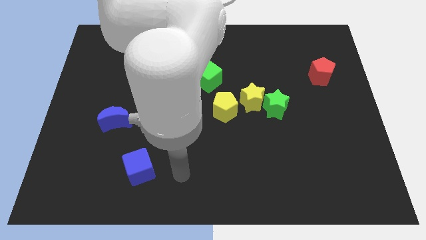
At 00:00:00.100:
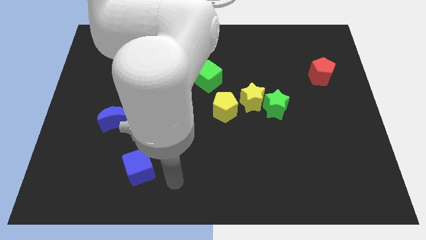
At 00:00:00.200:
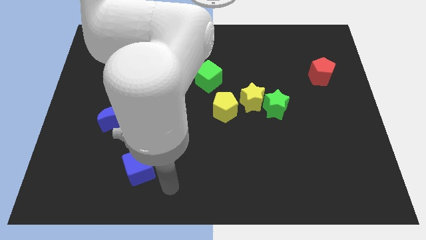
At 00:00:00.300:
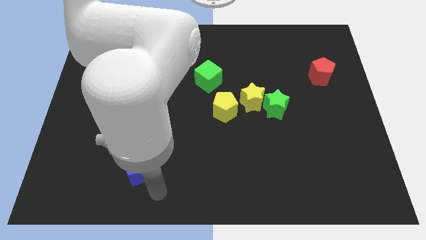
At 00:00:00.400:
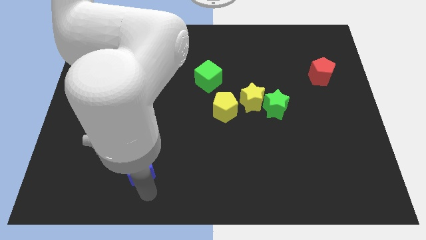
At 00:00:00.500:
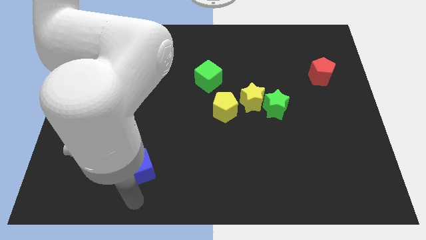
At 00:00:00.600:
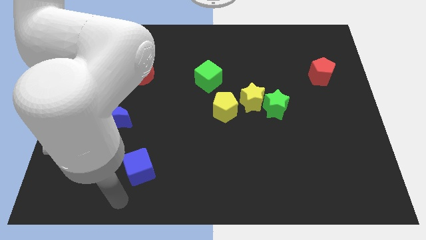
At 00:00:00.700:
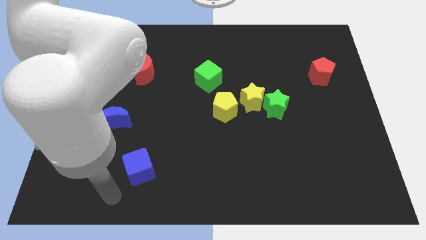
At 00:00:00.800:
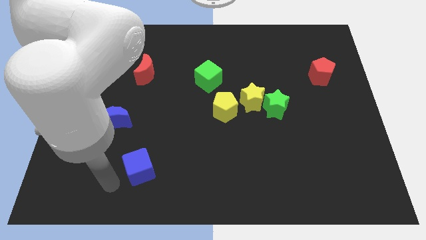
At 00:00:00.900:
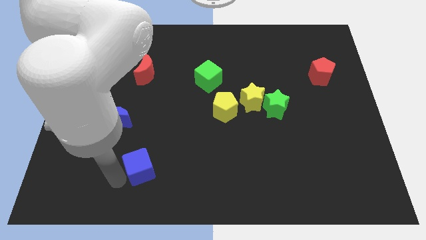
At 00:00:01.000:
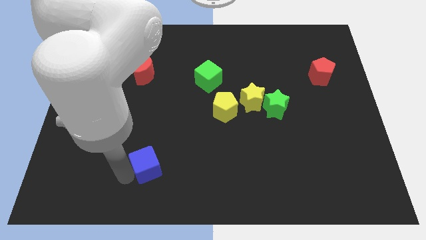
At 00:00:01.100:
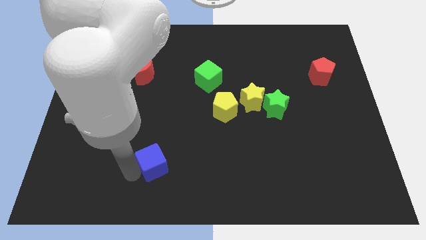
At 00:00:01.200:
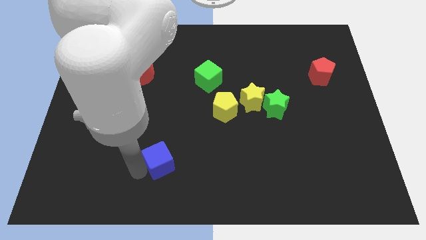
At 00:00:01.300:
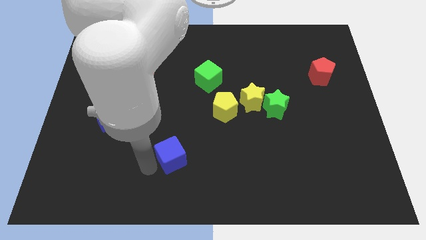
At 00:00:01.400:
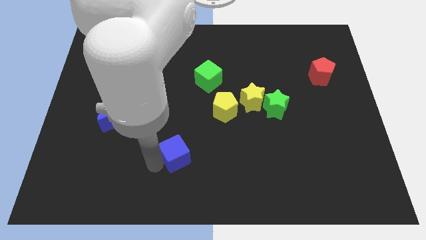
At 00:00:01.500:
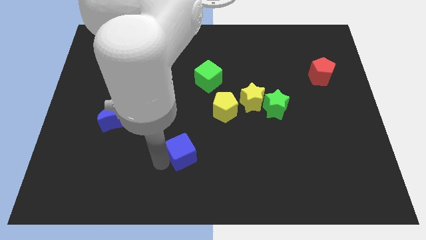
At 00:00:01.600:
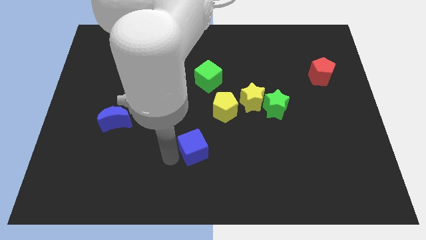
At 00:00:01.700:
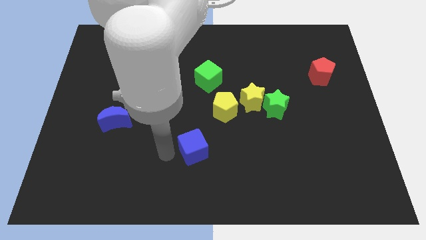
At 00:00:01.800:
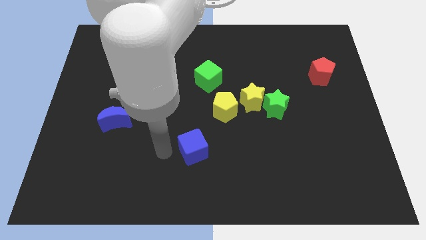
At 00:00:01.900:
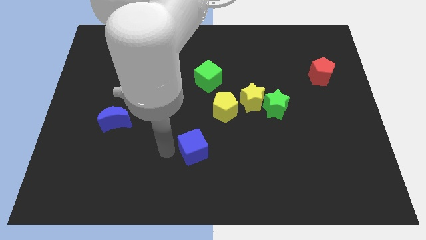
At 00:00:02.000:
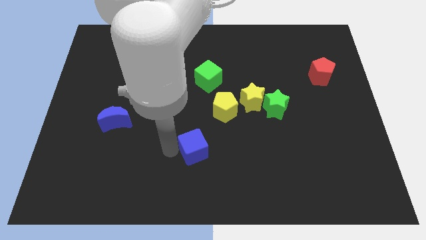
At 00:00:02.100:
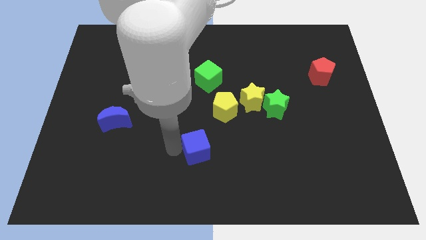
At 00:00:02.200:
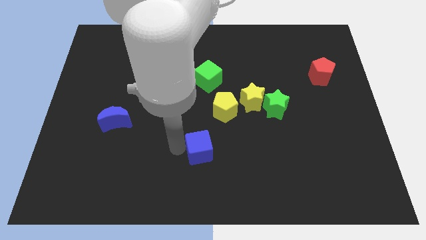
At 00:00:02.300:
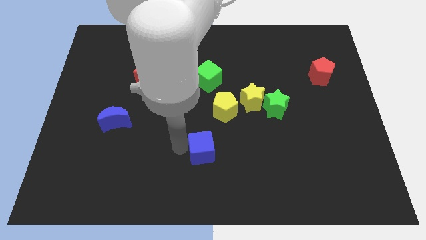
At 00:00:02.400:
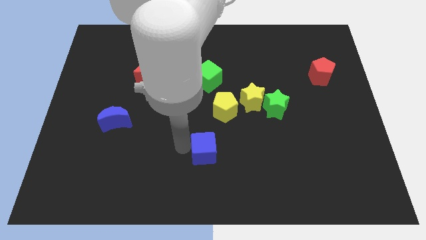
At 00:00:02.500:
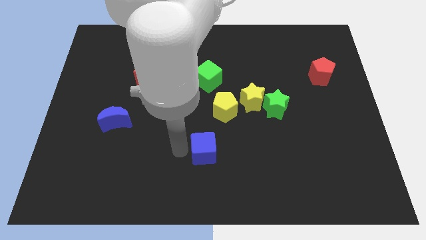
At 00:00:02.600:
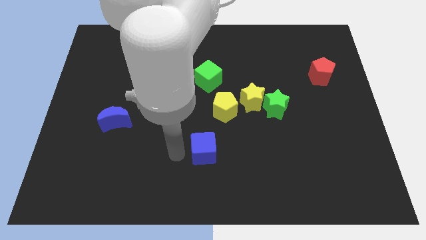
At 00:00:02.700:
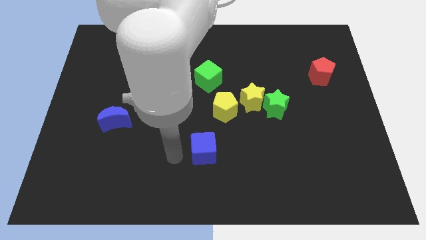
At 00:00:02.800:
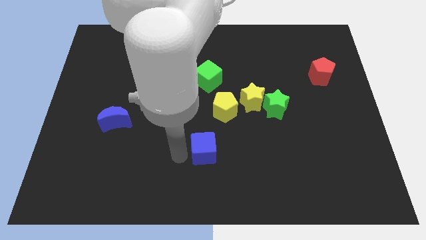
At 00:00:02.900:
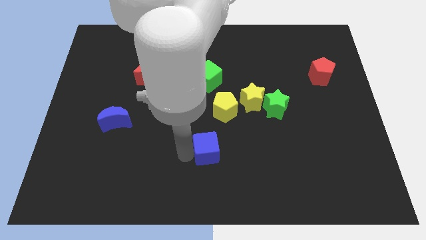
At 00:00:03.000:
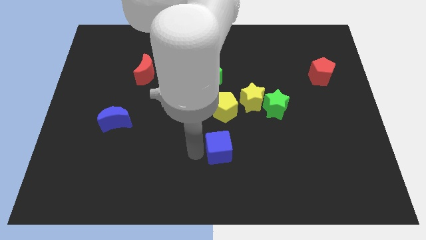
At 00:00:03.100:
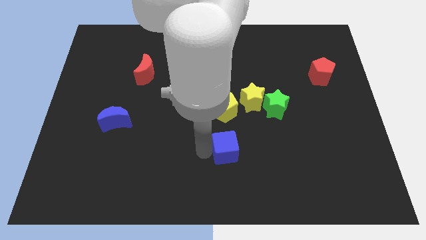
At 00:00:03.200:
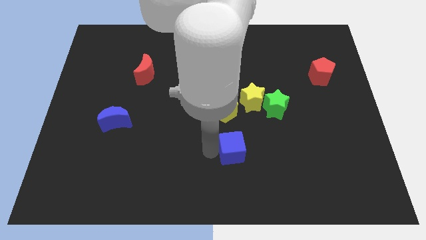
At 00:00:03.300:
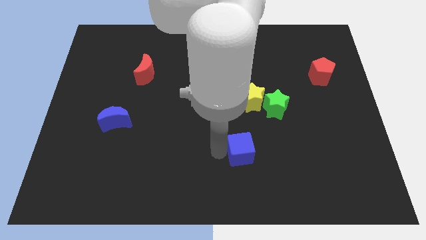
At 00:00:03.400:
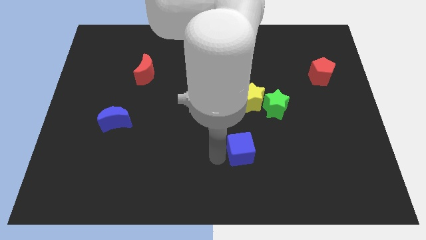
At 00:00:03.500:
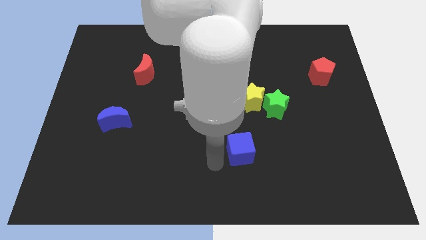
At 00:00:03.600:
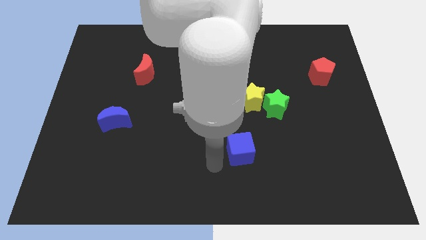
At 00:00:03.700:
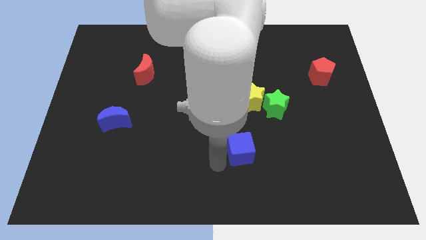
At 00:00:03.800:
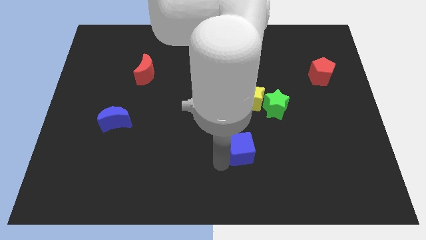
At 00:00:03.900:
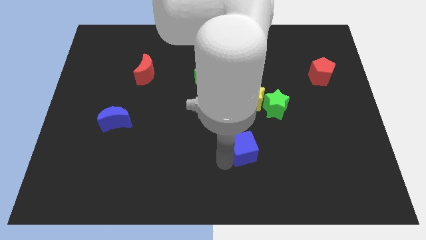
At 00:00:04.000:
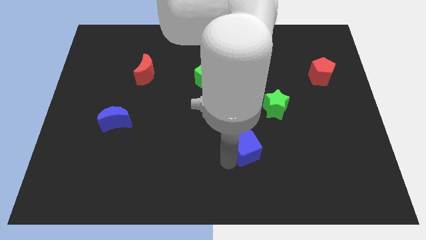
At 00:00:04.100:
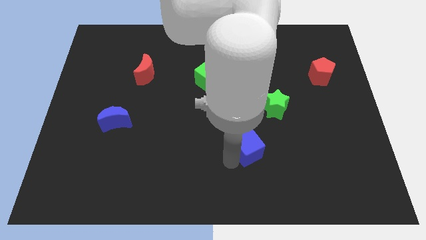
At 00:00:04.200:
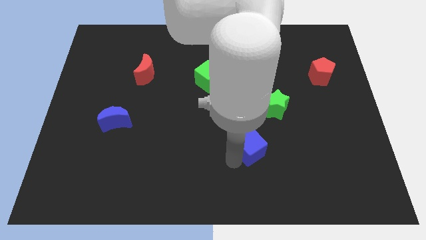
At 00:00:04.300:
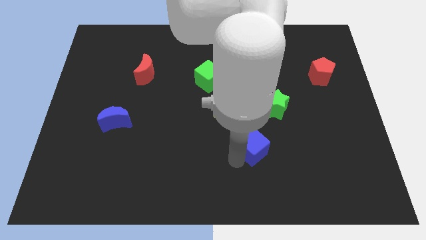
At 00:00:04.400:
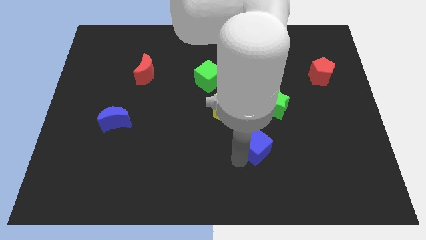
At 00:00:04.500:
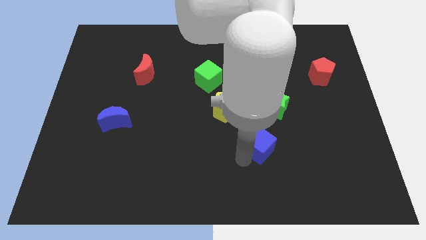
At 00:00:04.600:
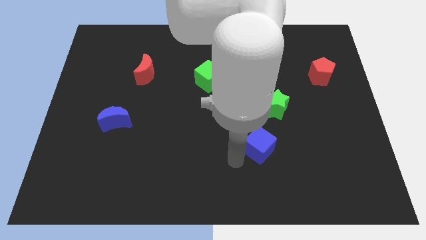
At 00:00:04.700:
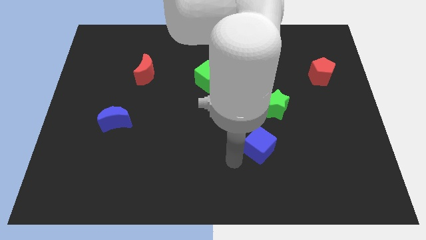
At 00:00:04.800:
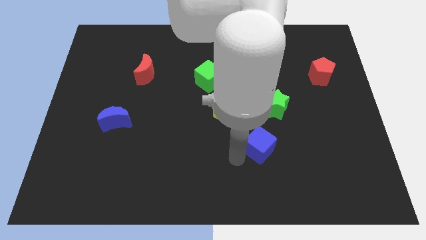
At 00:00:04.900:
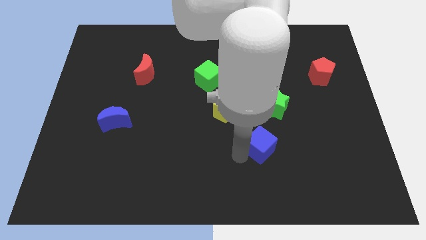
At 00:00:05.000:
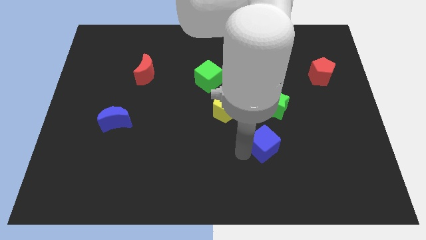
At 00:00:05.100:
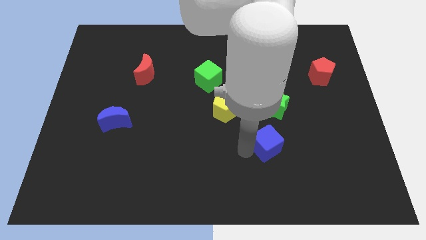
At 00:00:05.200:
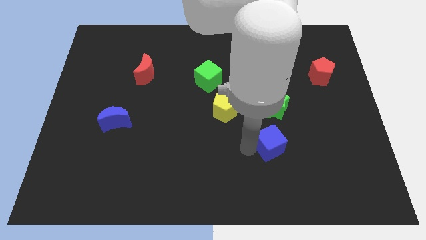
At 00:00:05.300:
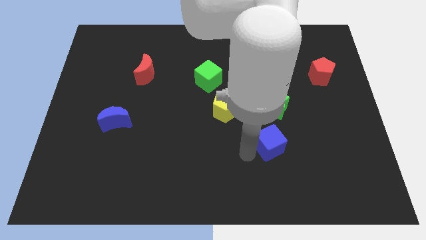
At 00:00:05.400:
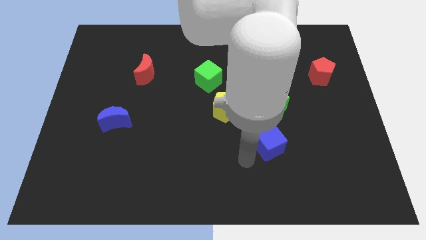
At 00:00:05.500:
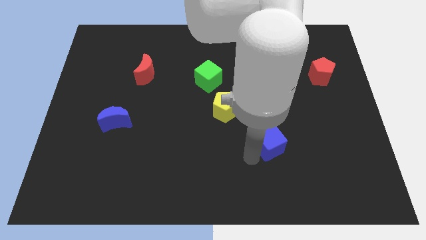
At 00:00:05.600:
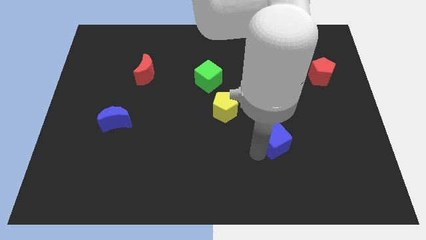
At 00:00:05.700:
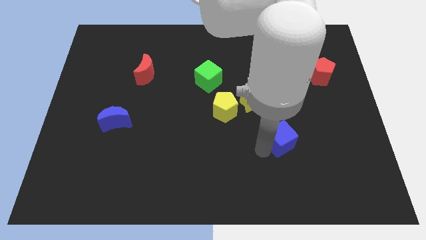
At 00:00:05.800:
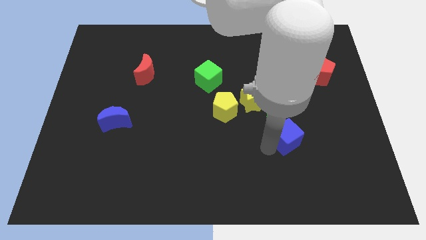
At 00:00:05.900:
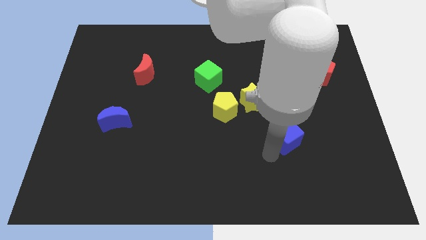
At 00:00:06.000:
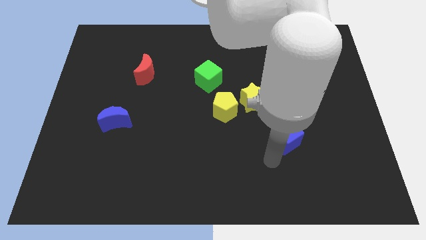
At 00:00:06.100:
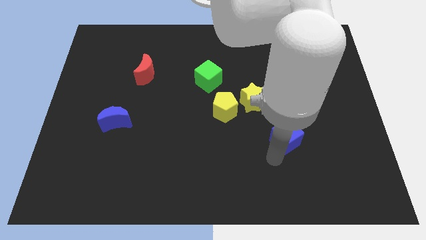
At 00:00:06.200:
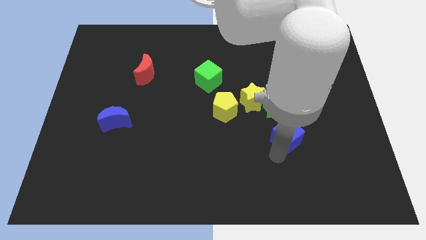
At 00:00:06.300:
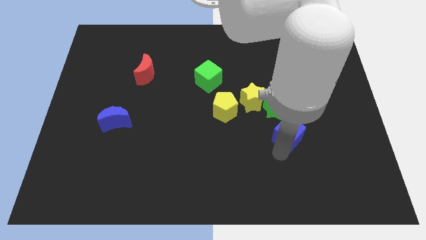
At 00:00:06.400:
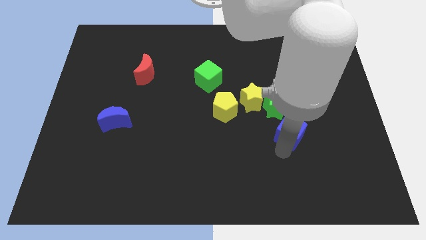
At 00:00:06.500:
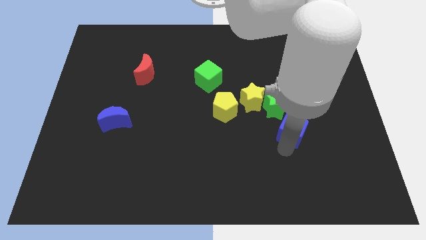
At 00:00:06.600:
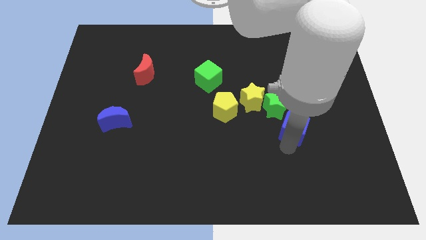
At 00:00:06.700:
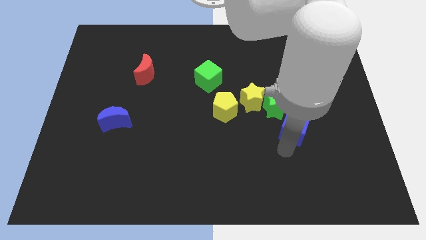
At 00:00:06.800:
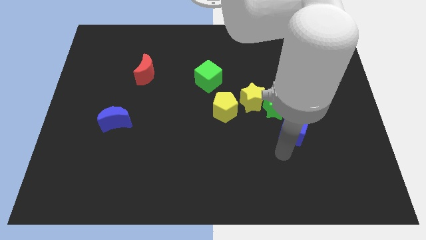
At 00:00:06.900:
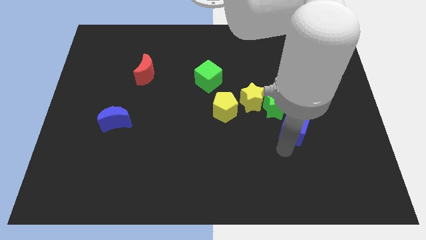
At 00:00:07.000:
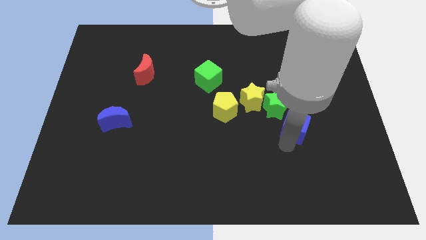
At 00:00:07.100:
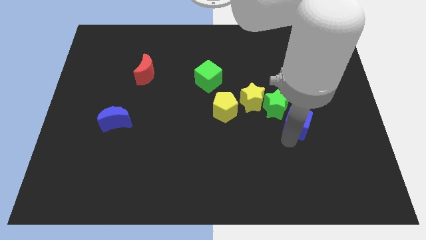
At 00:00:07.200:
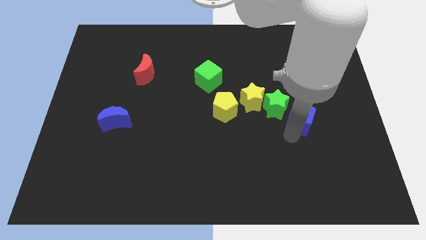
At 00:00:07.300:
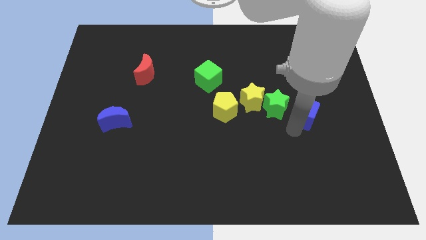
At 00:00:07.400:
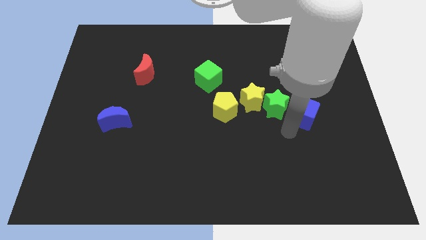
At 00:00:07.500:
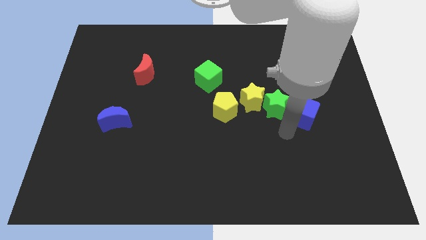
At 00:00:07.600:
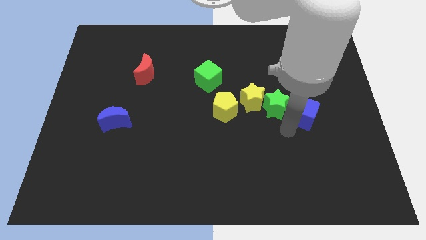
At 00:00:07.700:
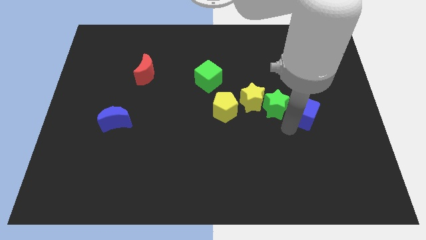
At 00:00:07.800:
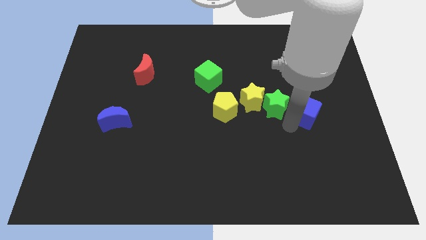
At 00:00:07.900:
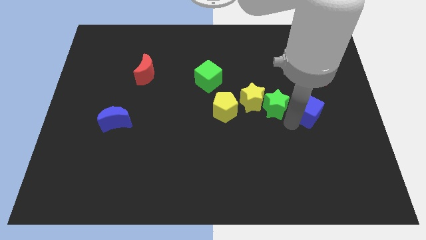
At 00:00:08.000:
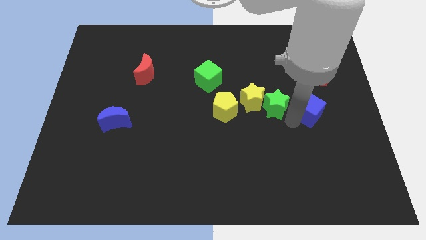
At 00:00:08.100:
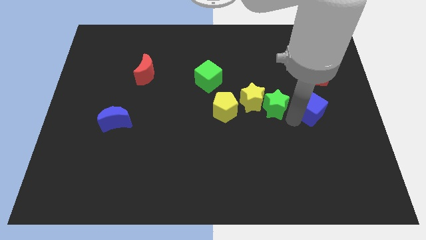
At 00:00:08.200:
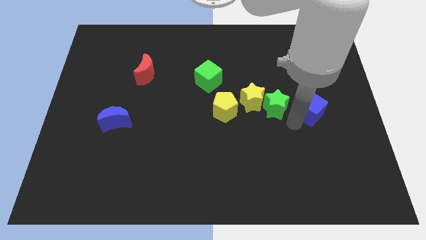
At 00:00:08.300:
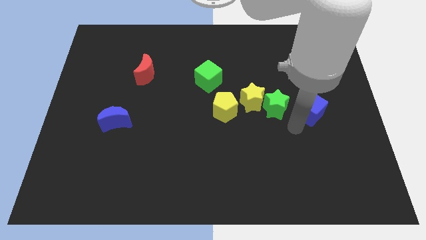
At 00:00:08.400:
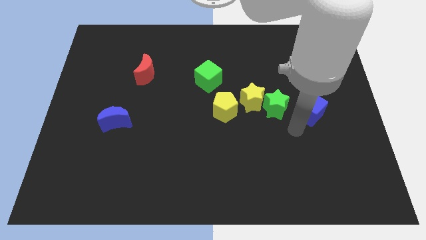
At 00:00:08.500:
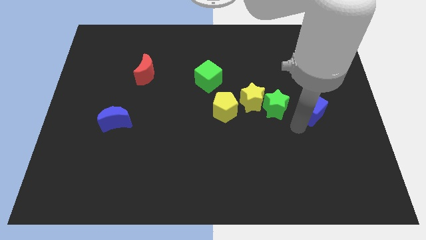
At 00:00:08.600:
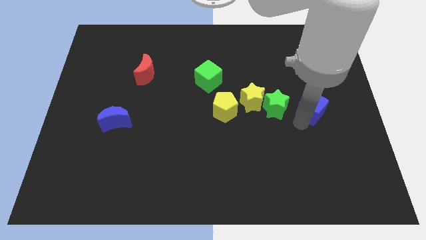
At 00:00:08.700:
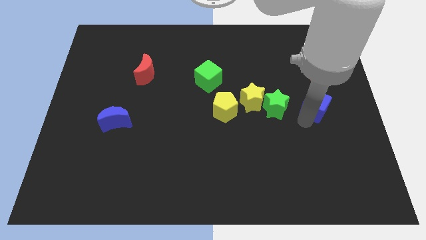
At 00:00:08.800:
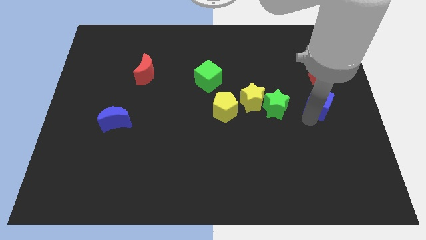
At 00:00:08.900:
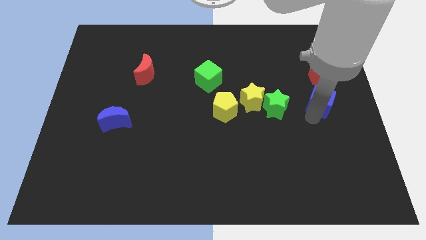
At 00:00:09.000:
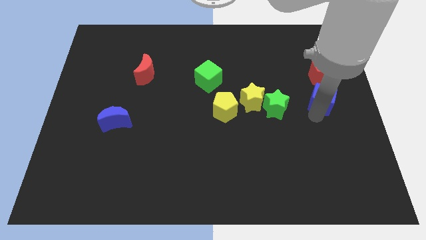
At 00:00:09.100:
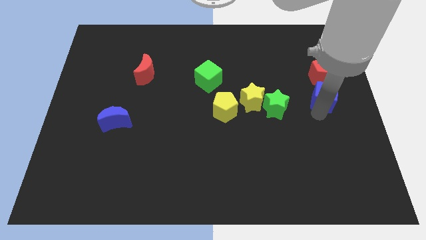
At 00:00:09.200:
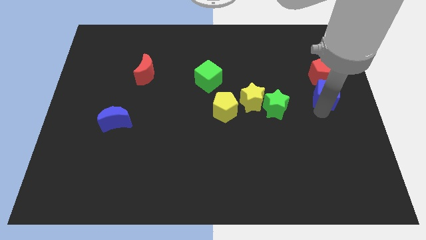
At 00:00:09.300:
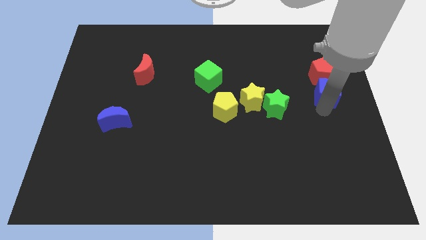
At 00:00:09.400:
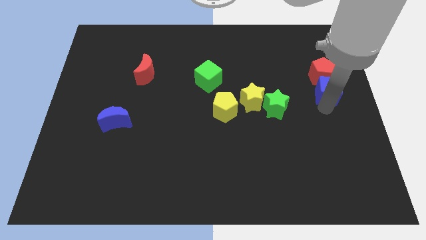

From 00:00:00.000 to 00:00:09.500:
put the blue cube next to the red pentagon
